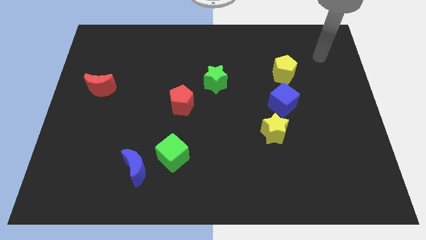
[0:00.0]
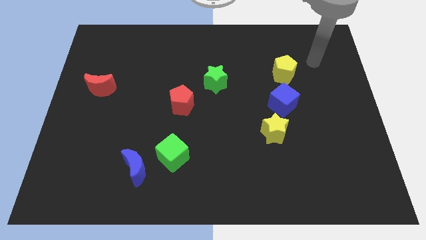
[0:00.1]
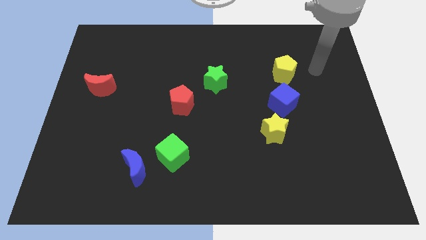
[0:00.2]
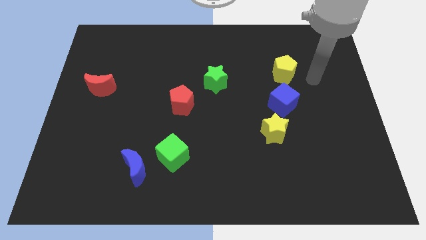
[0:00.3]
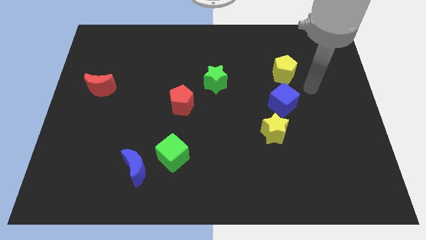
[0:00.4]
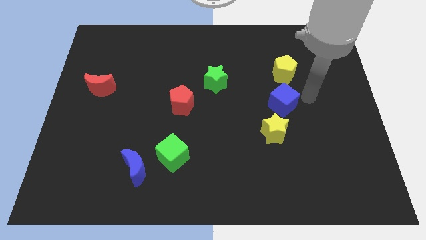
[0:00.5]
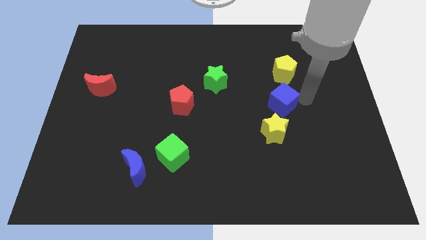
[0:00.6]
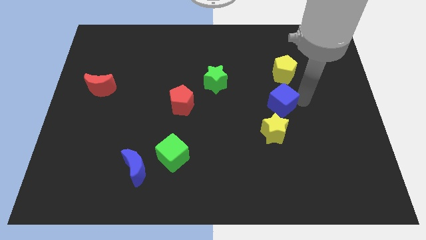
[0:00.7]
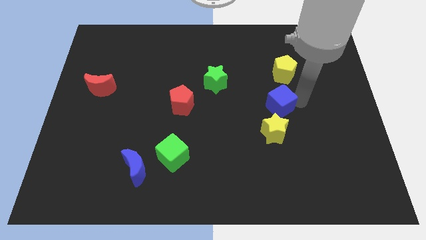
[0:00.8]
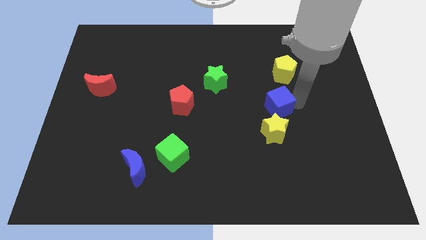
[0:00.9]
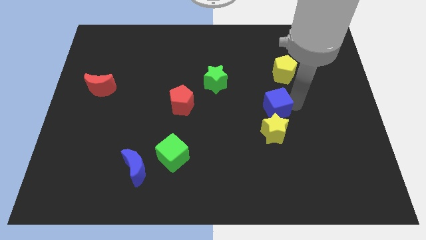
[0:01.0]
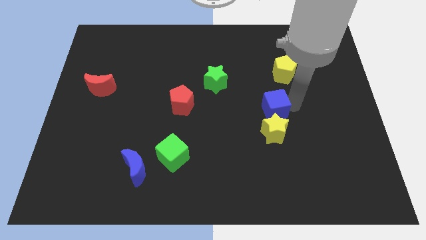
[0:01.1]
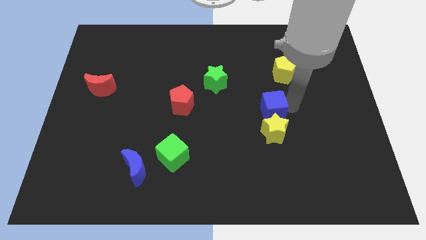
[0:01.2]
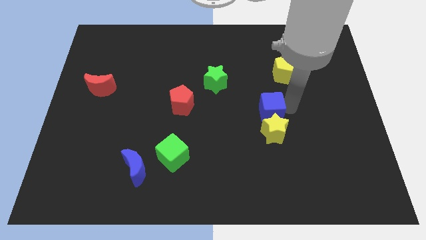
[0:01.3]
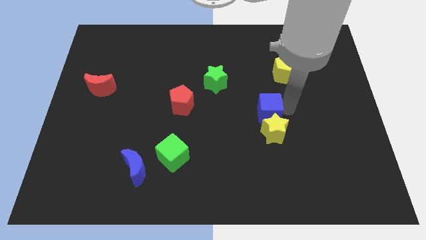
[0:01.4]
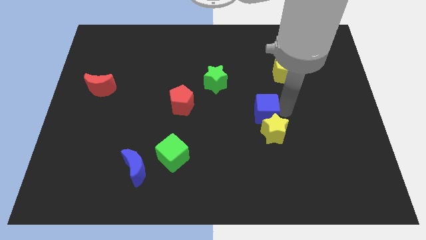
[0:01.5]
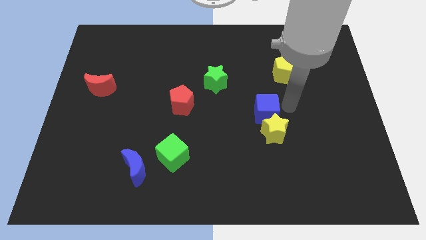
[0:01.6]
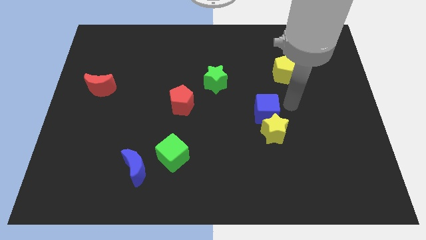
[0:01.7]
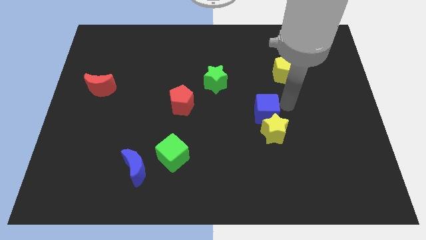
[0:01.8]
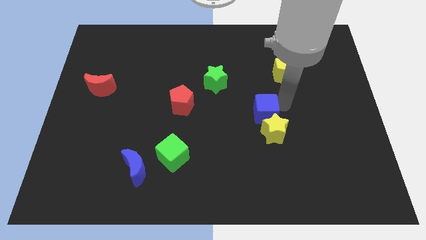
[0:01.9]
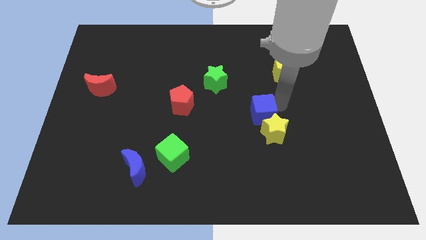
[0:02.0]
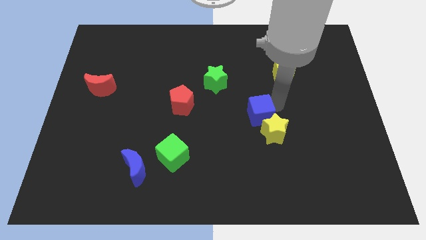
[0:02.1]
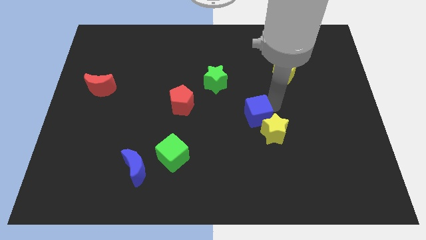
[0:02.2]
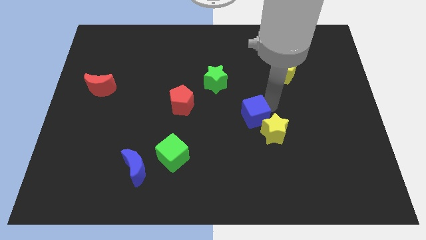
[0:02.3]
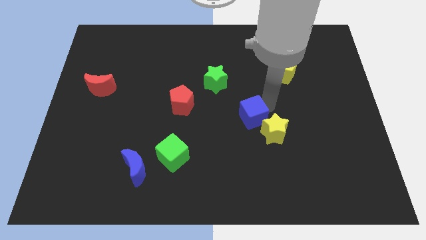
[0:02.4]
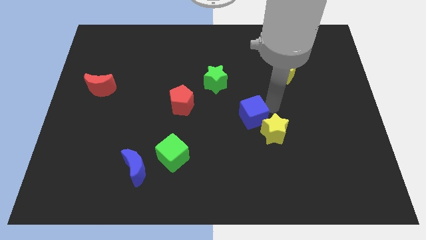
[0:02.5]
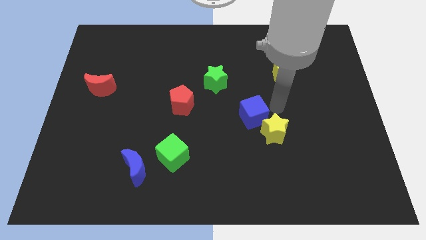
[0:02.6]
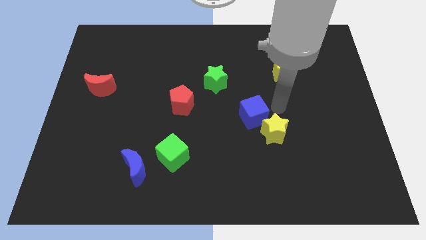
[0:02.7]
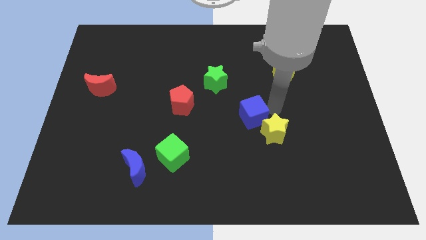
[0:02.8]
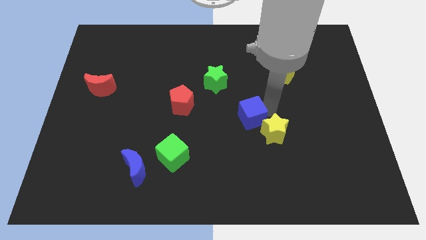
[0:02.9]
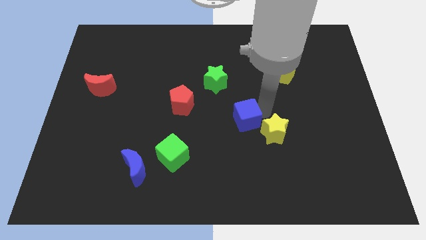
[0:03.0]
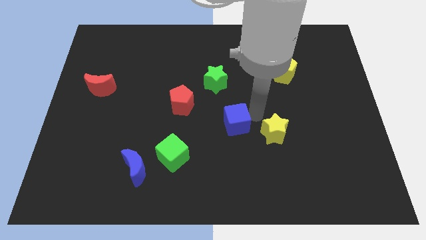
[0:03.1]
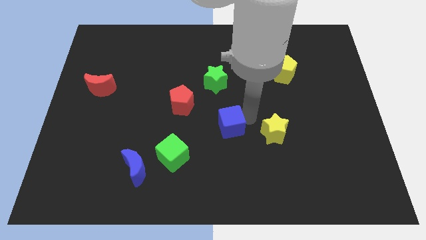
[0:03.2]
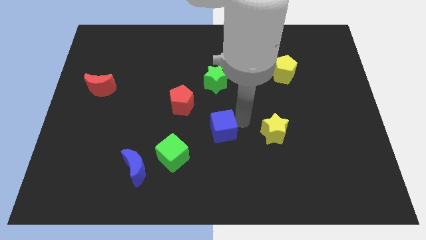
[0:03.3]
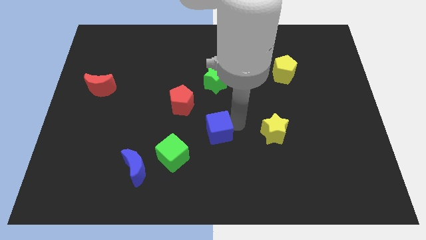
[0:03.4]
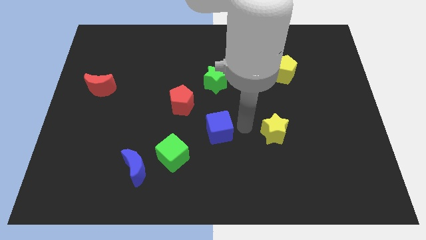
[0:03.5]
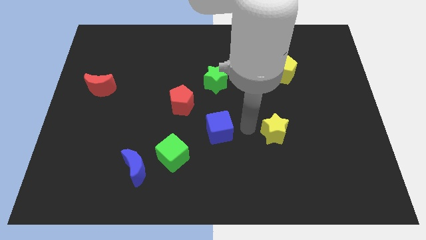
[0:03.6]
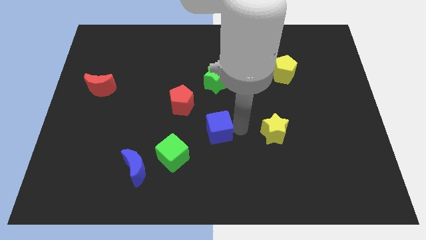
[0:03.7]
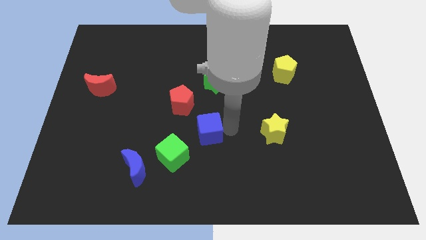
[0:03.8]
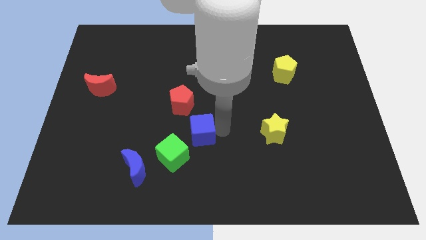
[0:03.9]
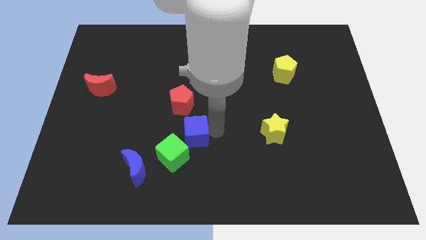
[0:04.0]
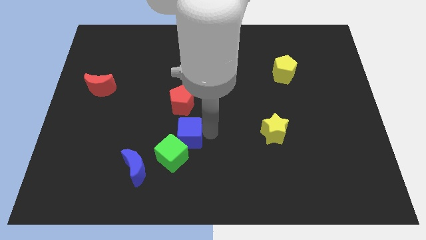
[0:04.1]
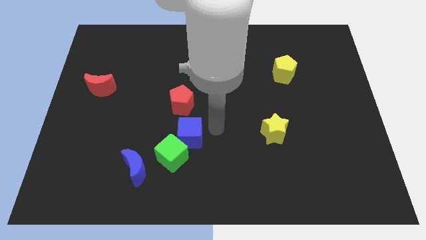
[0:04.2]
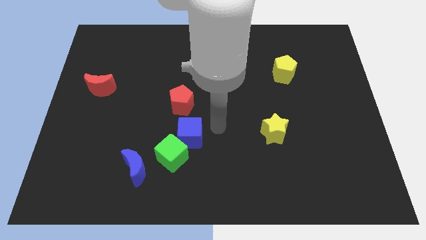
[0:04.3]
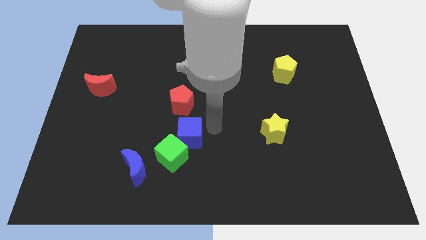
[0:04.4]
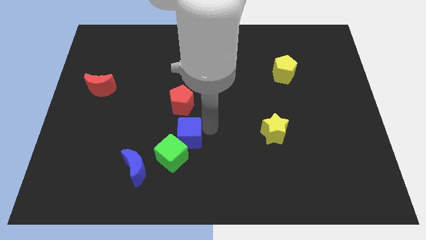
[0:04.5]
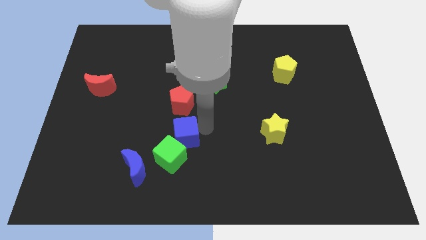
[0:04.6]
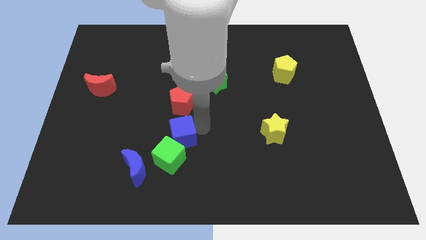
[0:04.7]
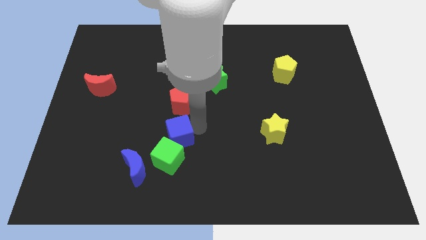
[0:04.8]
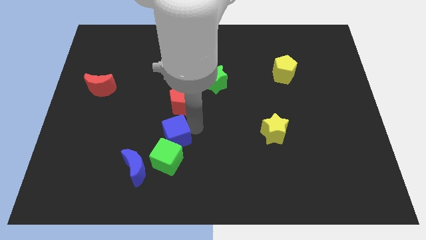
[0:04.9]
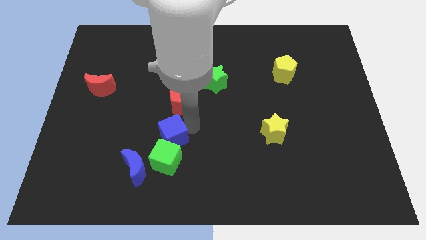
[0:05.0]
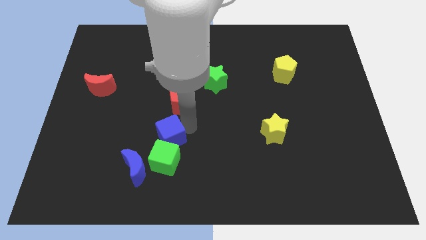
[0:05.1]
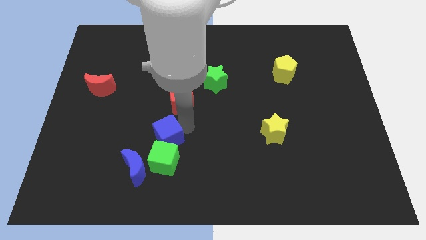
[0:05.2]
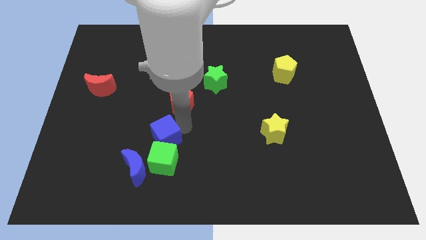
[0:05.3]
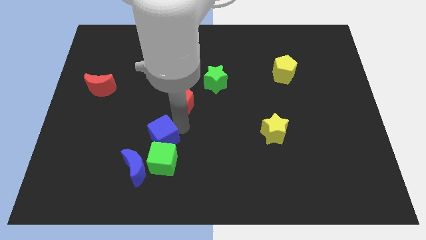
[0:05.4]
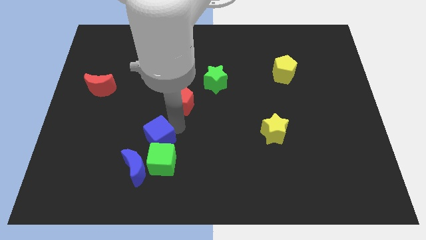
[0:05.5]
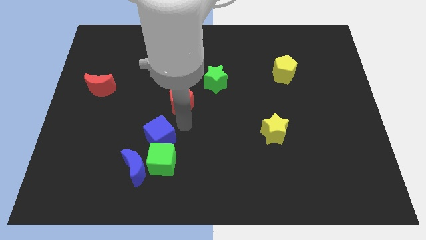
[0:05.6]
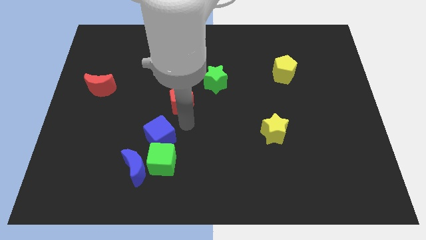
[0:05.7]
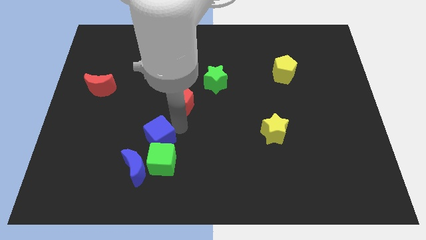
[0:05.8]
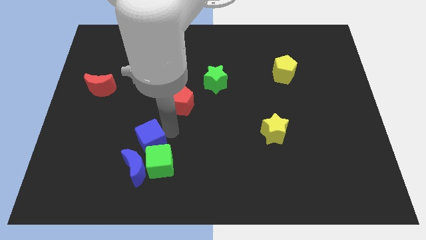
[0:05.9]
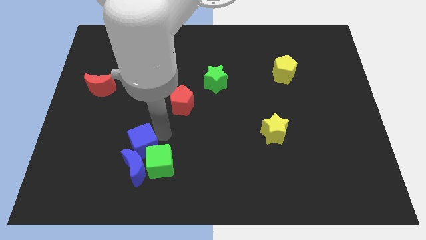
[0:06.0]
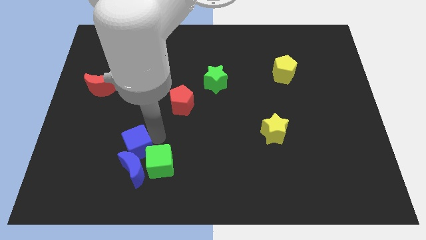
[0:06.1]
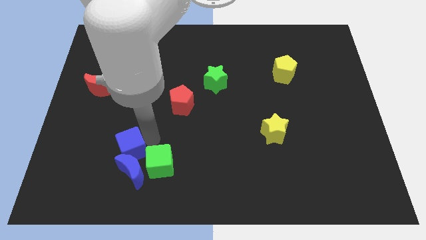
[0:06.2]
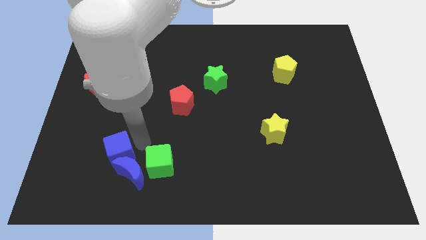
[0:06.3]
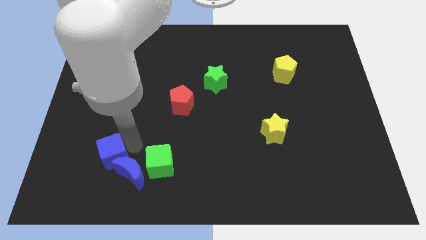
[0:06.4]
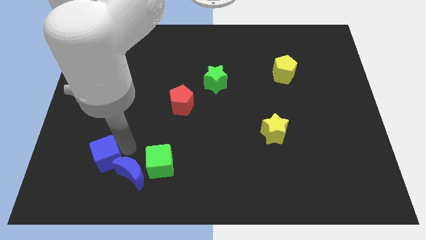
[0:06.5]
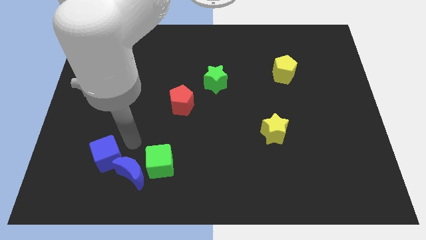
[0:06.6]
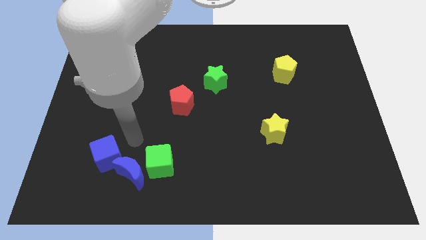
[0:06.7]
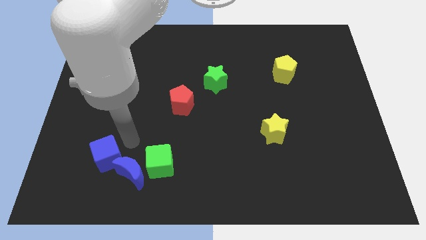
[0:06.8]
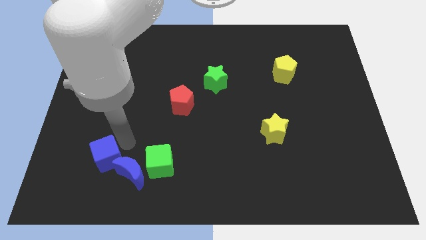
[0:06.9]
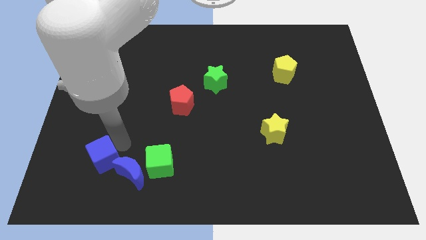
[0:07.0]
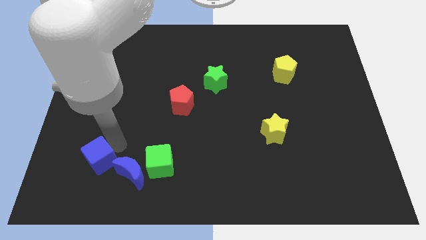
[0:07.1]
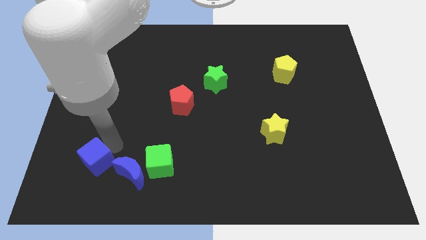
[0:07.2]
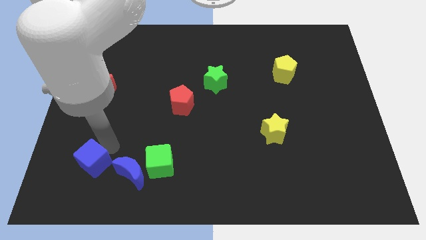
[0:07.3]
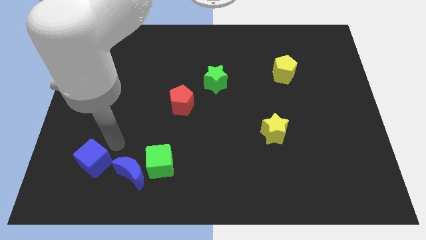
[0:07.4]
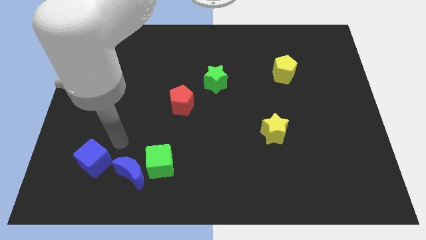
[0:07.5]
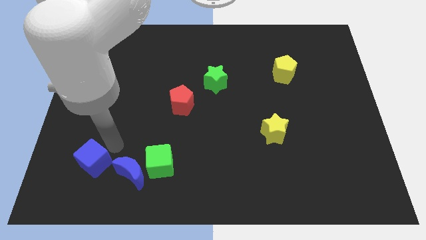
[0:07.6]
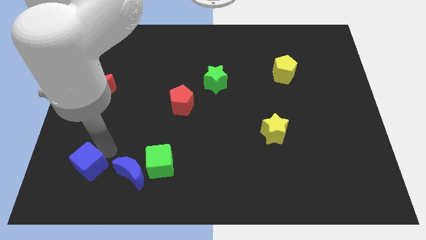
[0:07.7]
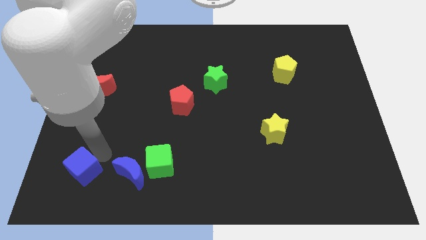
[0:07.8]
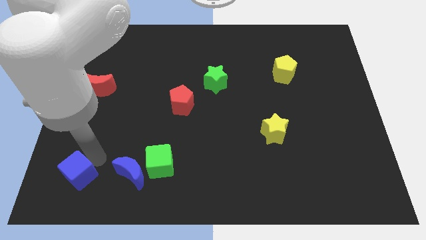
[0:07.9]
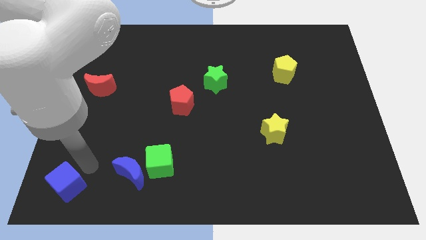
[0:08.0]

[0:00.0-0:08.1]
slide the blue cube to the bottom left corner
